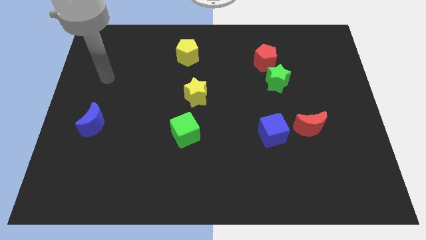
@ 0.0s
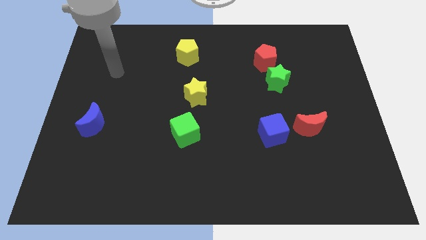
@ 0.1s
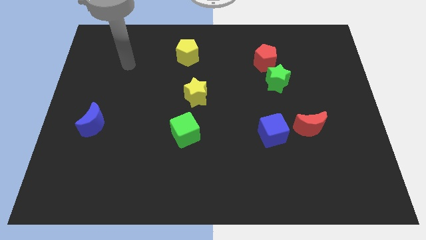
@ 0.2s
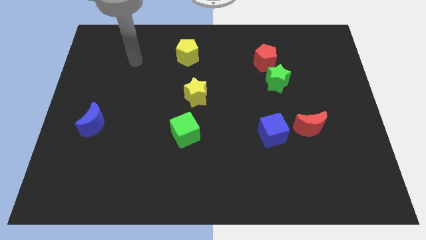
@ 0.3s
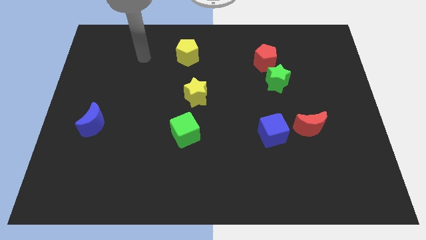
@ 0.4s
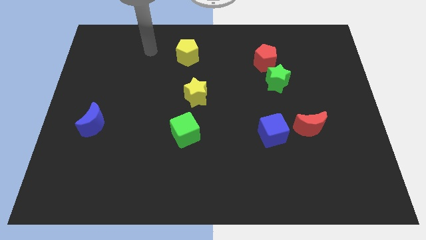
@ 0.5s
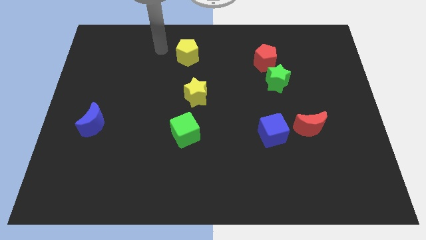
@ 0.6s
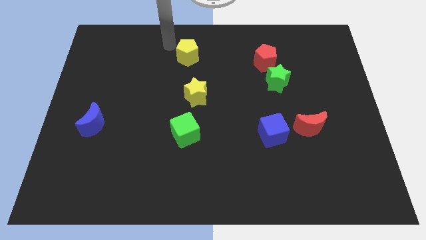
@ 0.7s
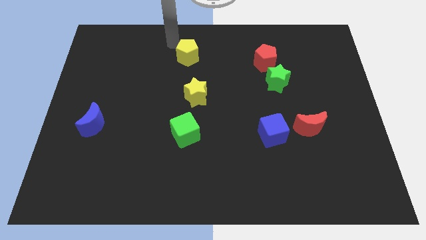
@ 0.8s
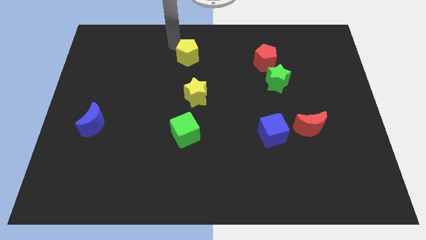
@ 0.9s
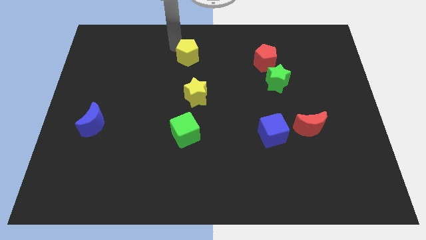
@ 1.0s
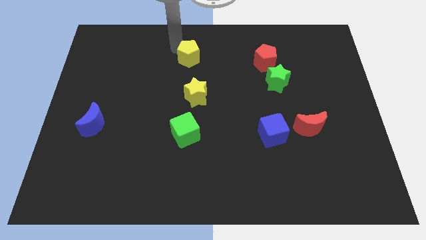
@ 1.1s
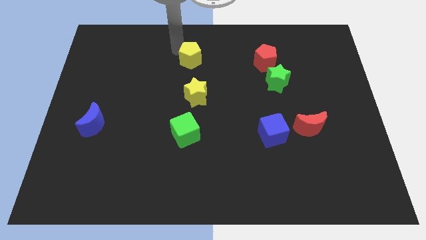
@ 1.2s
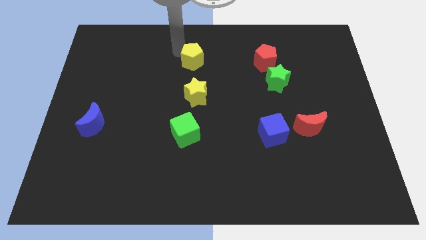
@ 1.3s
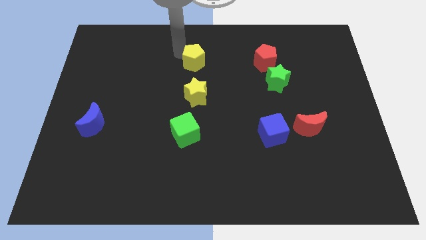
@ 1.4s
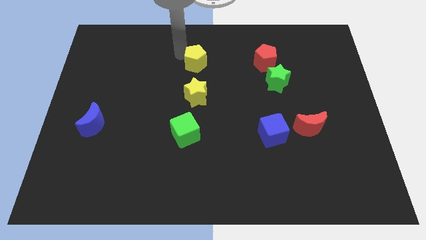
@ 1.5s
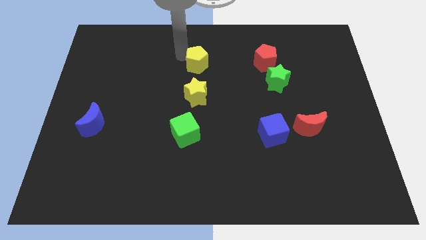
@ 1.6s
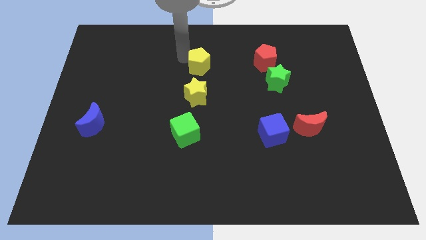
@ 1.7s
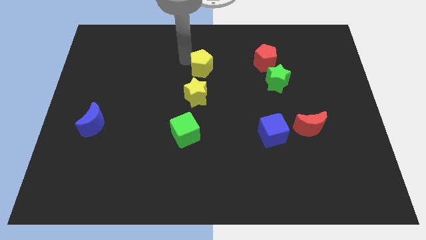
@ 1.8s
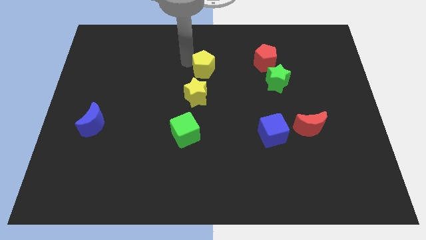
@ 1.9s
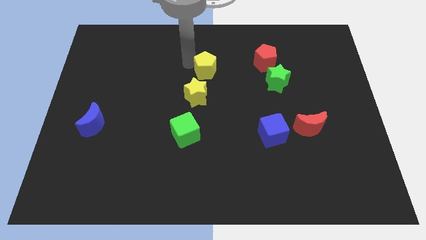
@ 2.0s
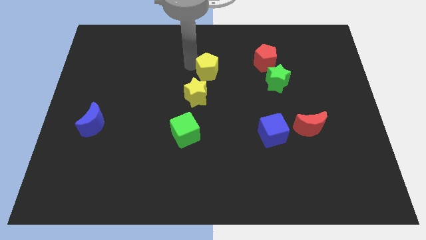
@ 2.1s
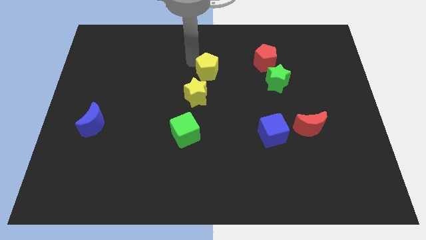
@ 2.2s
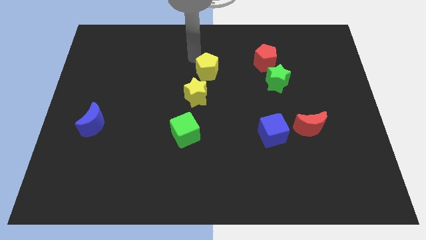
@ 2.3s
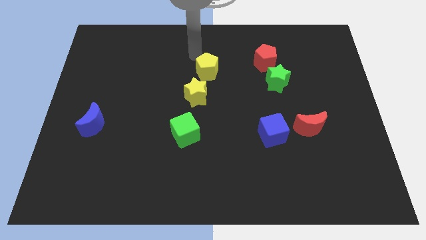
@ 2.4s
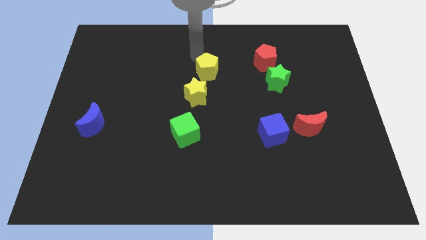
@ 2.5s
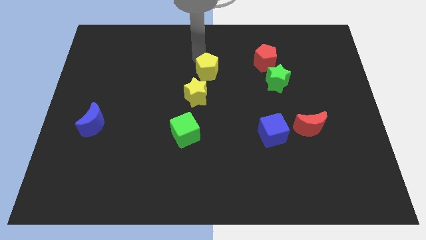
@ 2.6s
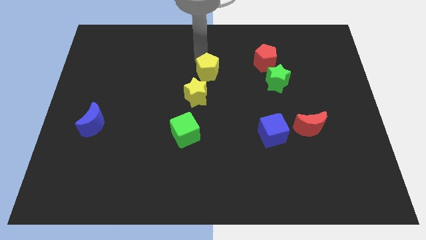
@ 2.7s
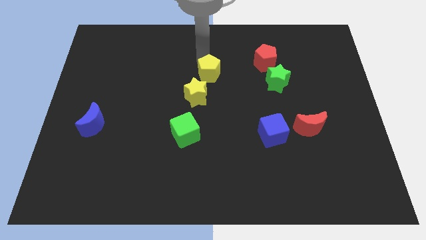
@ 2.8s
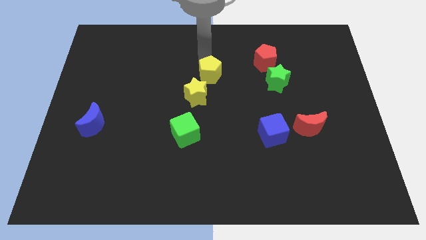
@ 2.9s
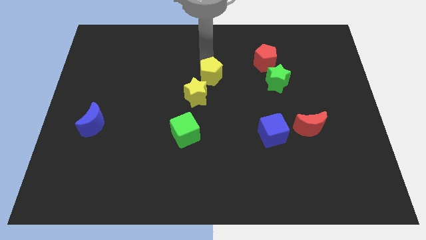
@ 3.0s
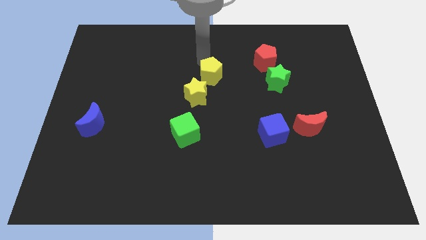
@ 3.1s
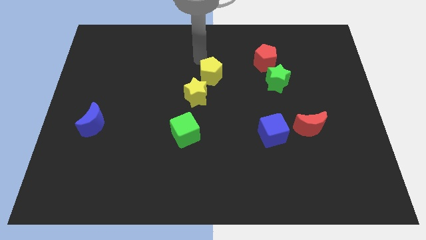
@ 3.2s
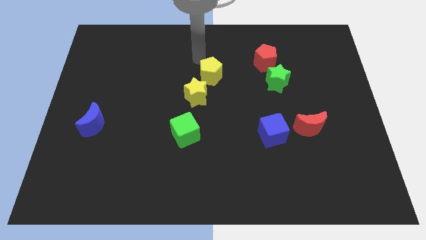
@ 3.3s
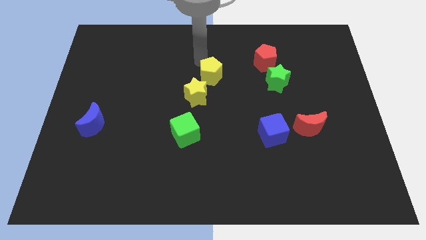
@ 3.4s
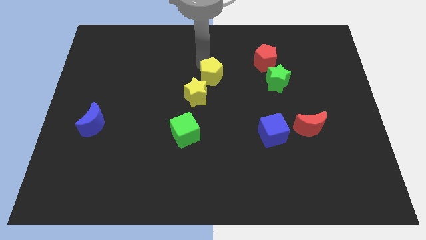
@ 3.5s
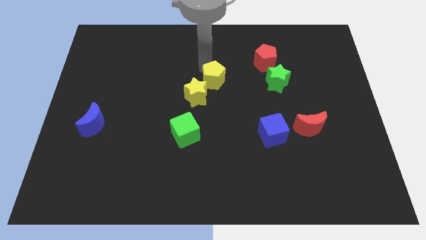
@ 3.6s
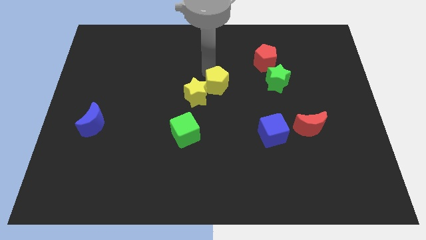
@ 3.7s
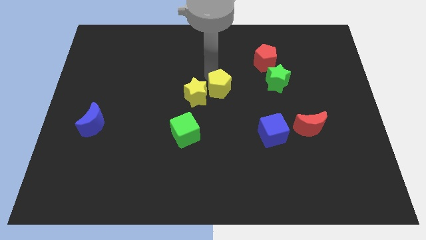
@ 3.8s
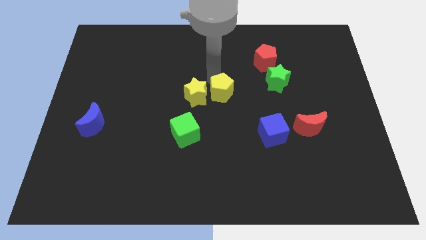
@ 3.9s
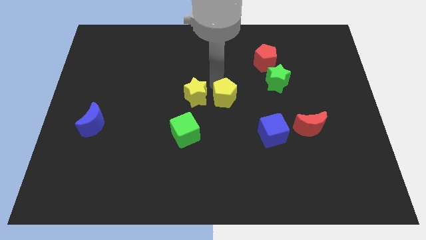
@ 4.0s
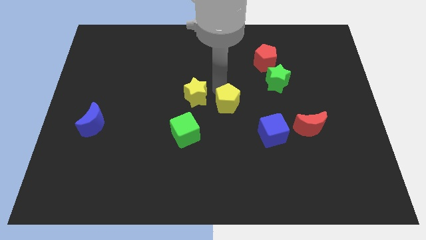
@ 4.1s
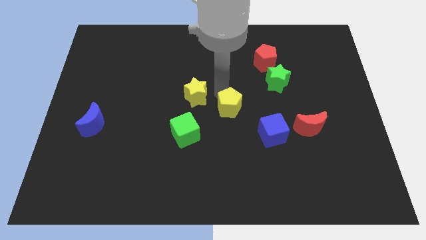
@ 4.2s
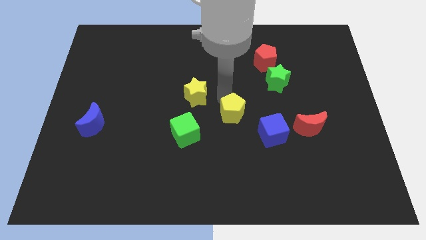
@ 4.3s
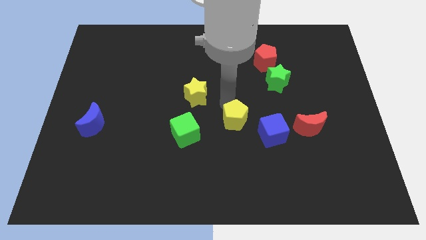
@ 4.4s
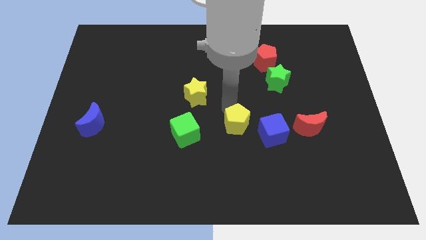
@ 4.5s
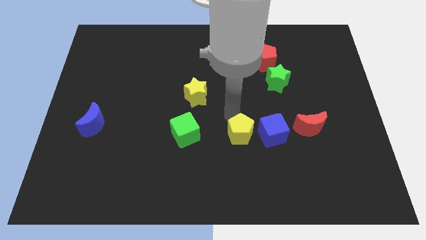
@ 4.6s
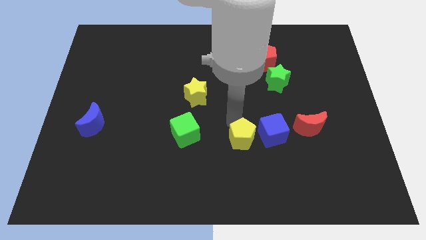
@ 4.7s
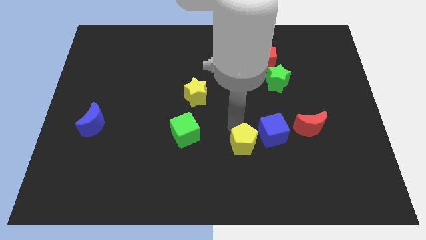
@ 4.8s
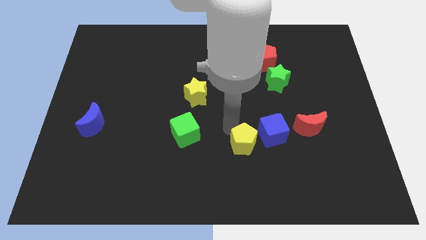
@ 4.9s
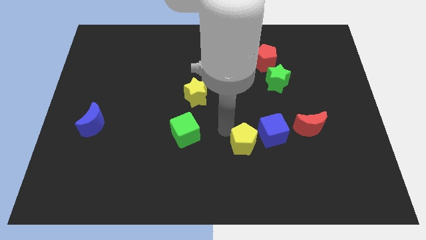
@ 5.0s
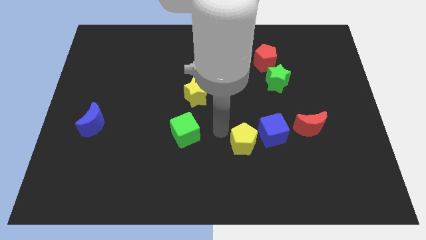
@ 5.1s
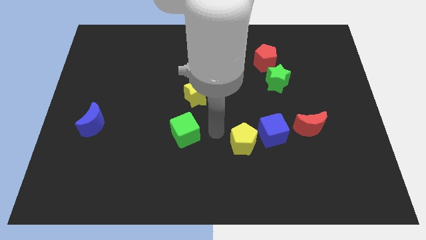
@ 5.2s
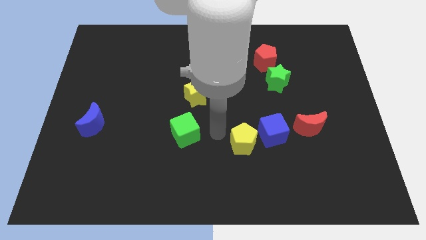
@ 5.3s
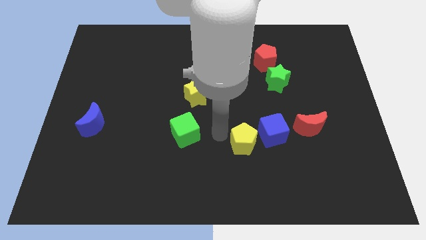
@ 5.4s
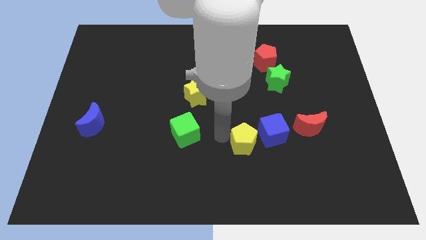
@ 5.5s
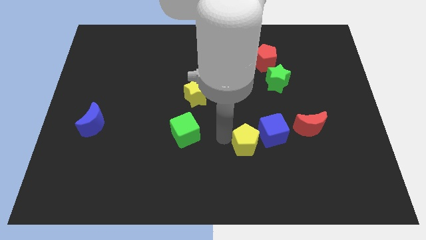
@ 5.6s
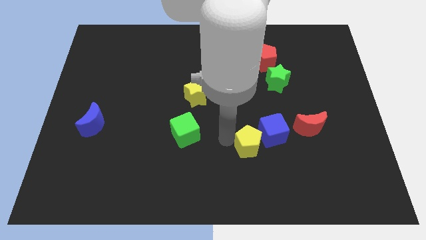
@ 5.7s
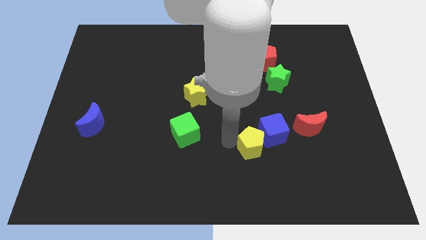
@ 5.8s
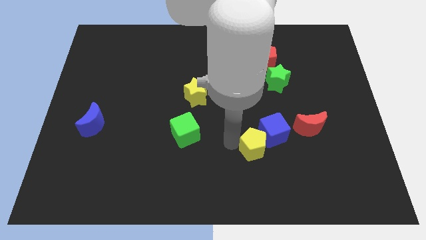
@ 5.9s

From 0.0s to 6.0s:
slide the yellow pentagon below the blue cube

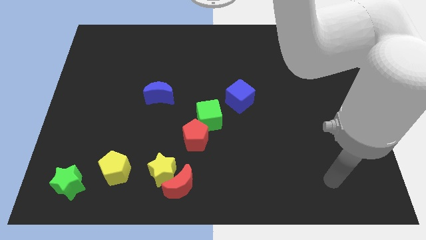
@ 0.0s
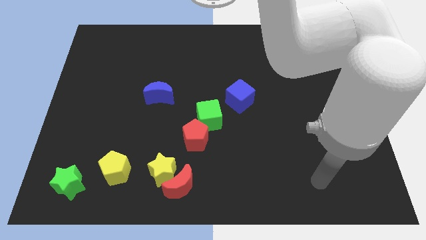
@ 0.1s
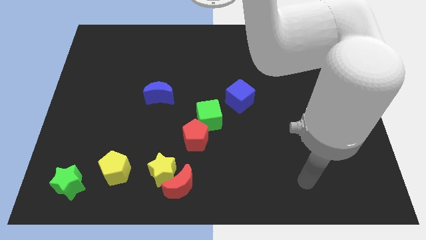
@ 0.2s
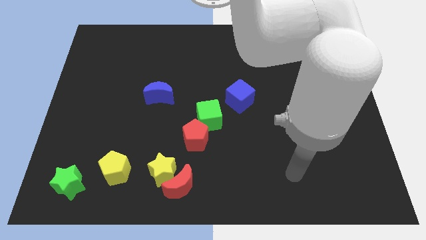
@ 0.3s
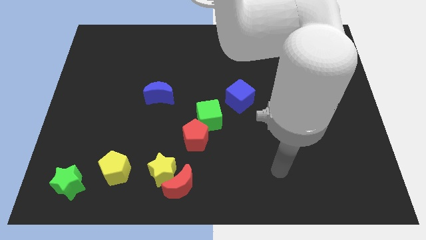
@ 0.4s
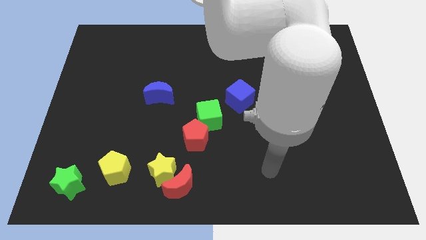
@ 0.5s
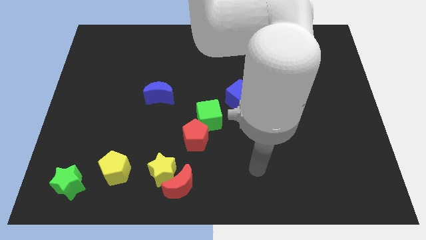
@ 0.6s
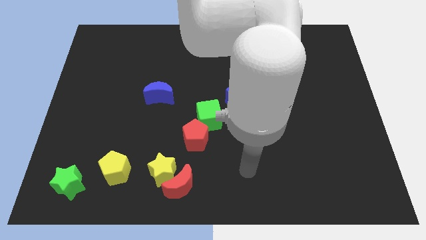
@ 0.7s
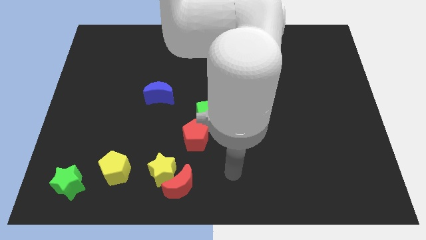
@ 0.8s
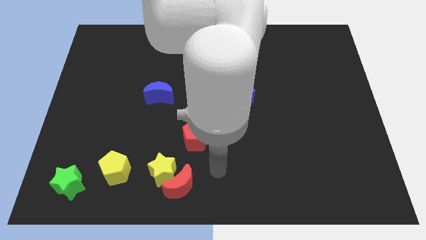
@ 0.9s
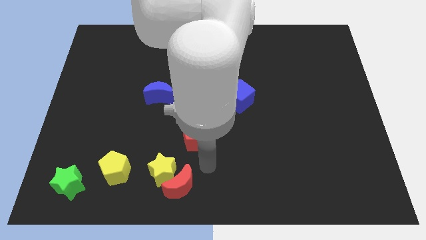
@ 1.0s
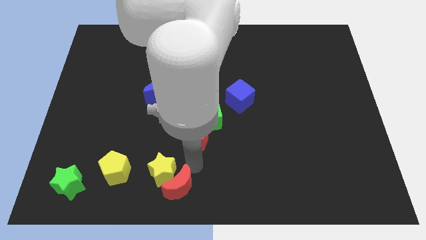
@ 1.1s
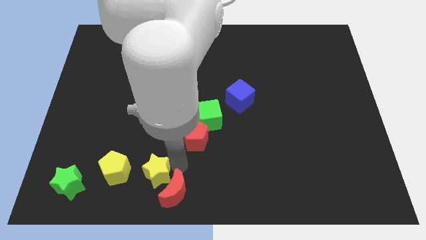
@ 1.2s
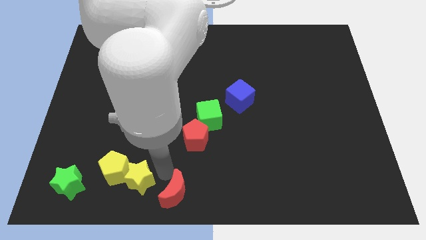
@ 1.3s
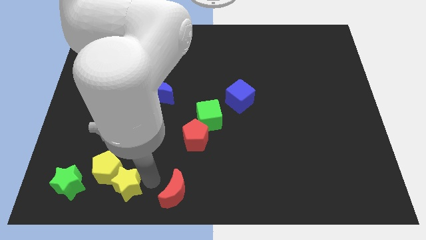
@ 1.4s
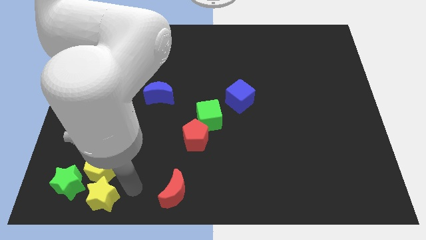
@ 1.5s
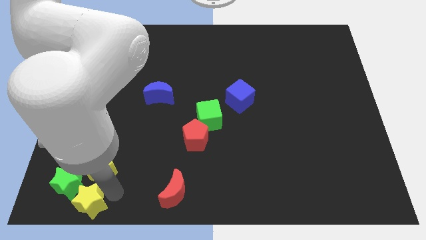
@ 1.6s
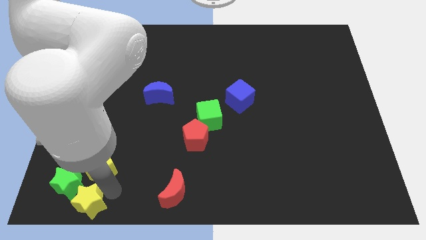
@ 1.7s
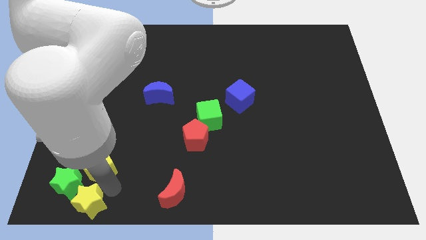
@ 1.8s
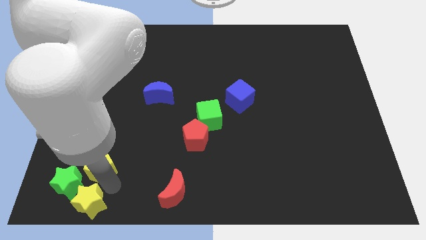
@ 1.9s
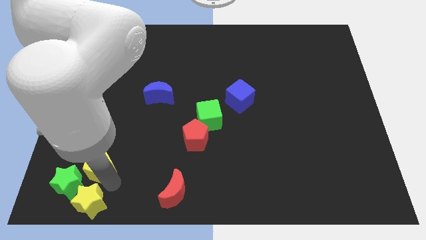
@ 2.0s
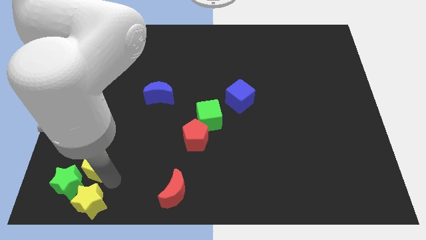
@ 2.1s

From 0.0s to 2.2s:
put the yellow pentagon to the top of the green star

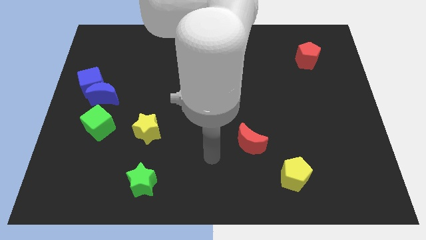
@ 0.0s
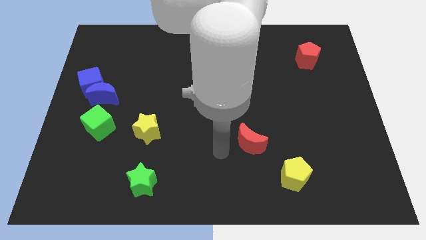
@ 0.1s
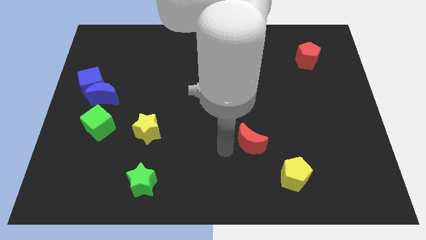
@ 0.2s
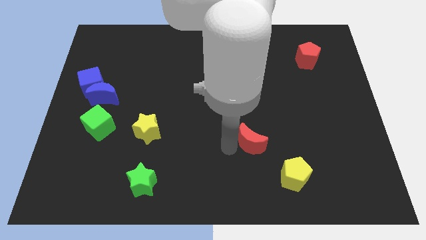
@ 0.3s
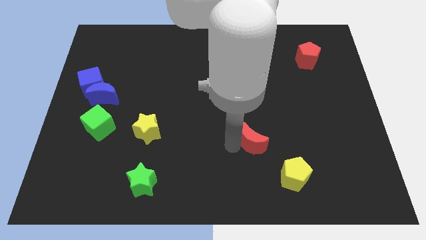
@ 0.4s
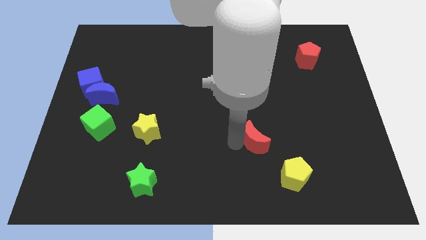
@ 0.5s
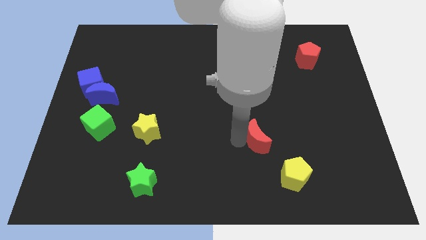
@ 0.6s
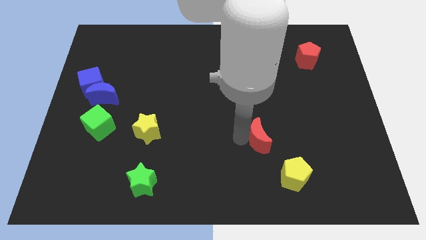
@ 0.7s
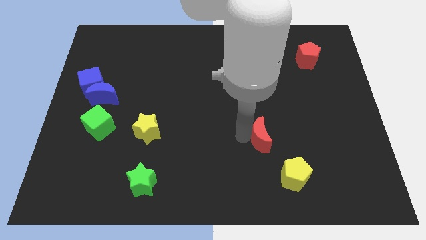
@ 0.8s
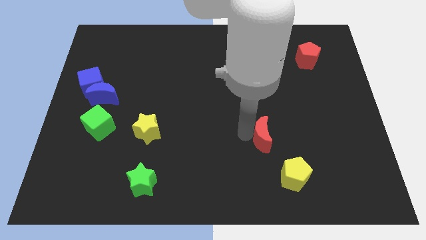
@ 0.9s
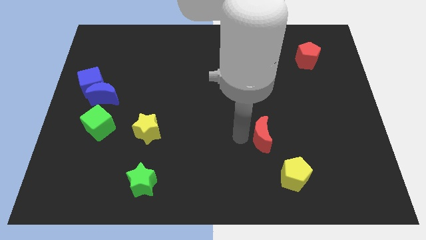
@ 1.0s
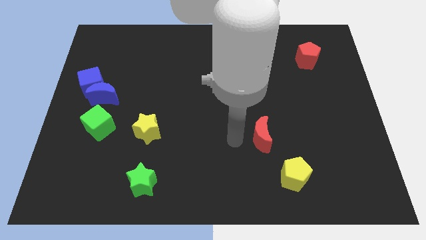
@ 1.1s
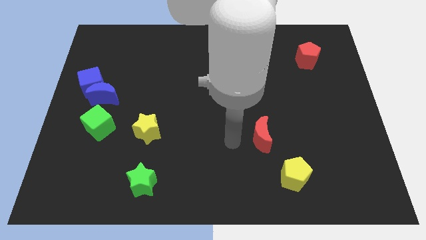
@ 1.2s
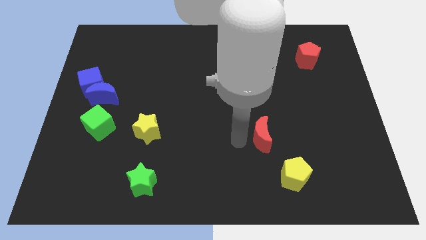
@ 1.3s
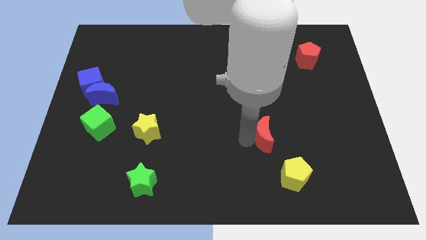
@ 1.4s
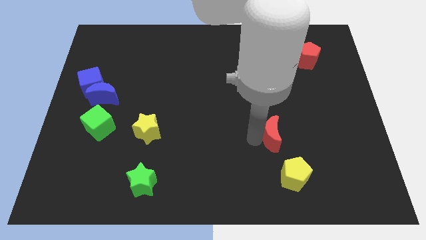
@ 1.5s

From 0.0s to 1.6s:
move the red moon above the yellow pentagon
